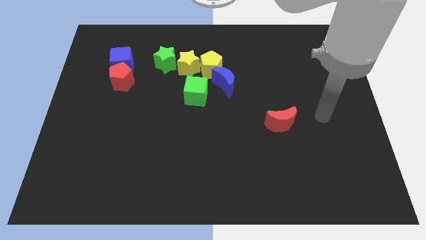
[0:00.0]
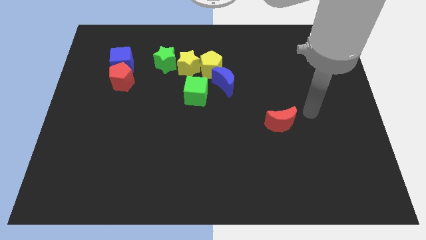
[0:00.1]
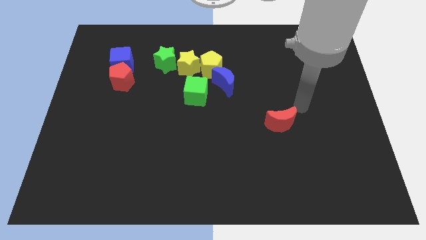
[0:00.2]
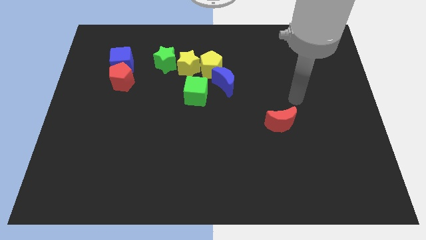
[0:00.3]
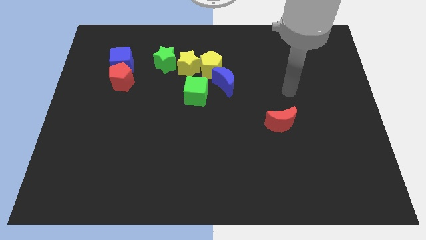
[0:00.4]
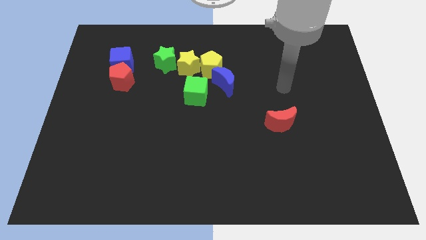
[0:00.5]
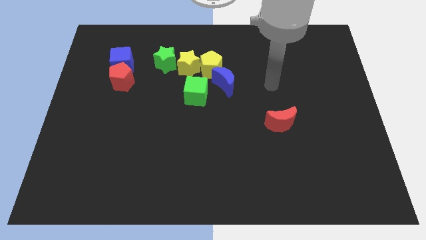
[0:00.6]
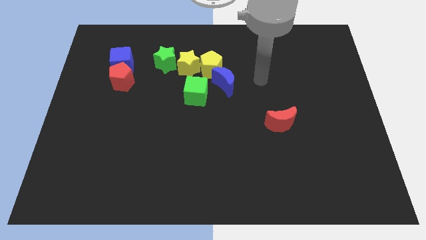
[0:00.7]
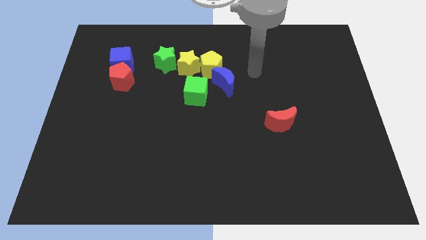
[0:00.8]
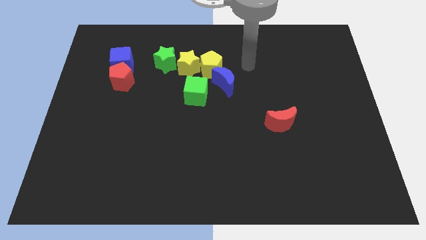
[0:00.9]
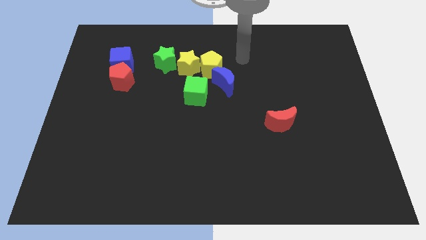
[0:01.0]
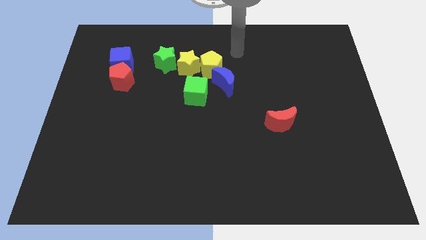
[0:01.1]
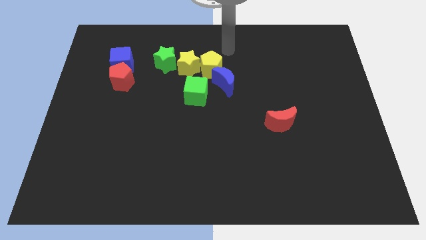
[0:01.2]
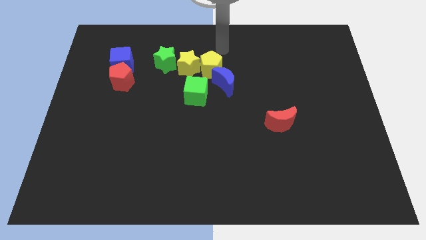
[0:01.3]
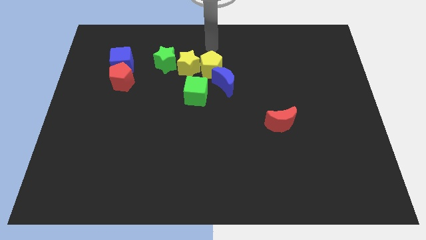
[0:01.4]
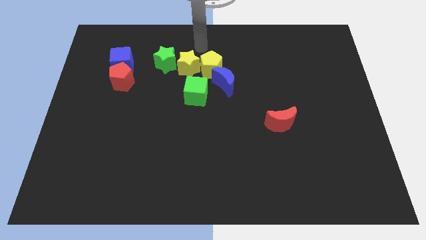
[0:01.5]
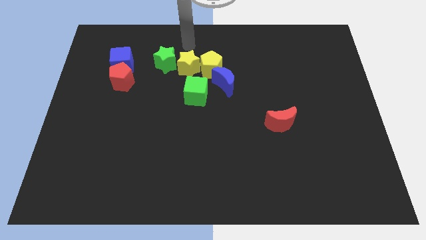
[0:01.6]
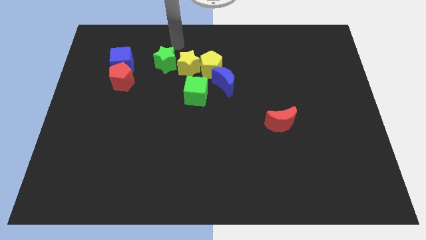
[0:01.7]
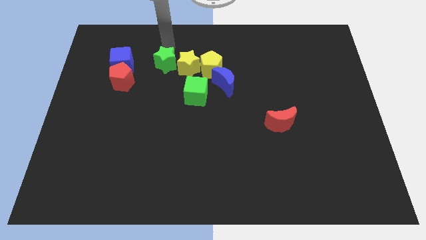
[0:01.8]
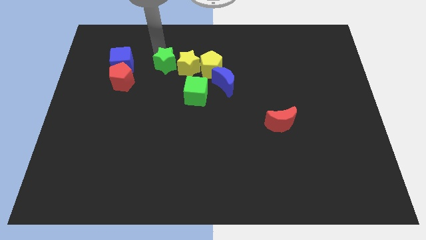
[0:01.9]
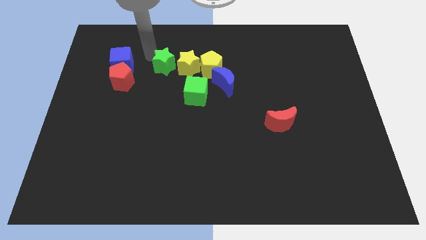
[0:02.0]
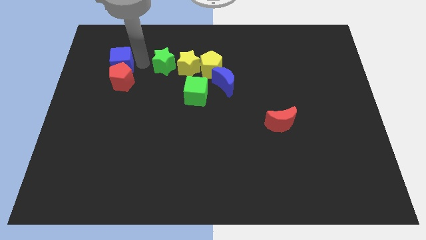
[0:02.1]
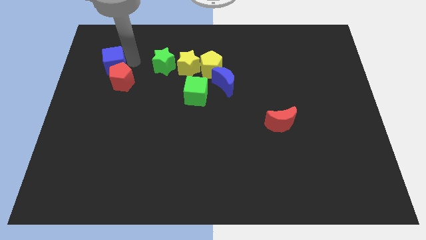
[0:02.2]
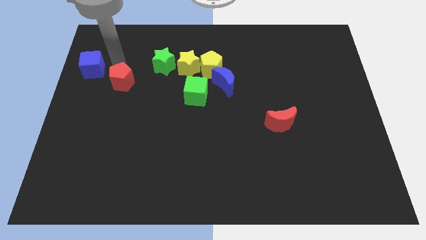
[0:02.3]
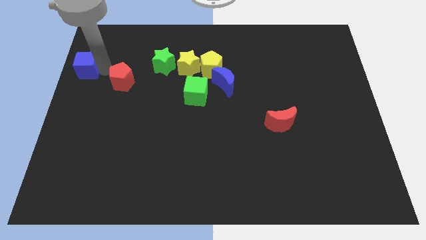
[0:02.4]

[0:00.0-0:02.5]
pull the red pentagon apart from the blue cube

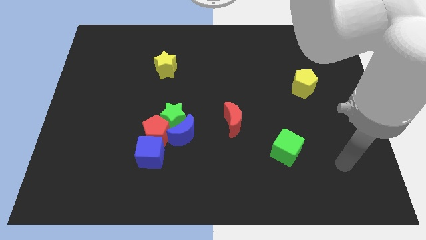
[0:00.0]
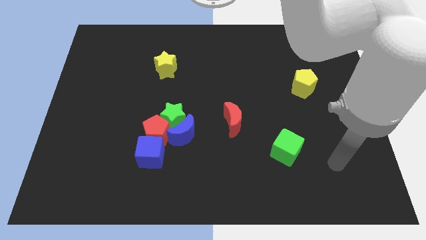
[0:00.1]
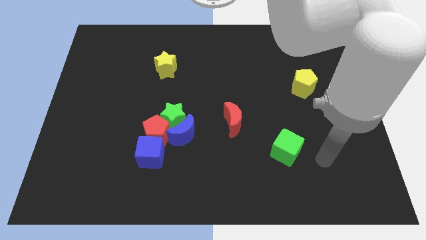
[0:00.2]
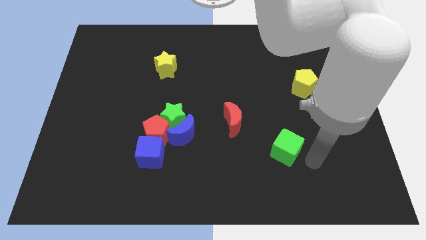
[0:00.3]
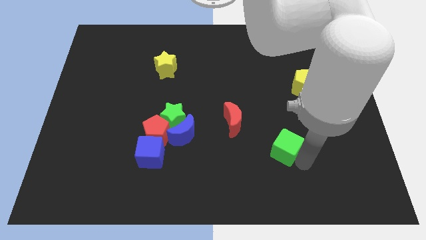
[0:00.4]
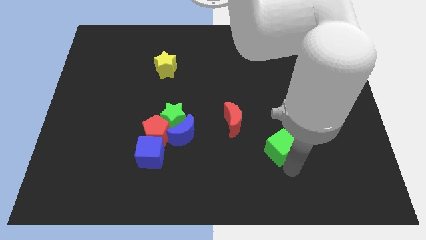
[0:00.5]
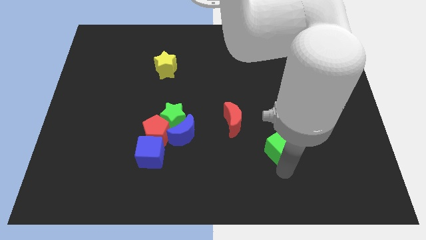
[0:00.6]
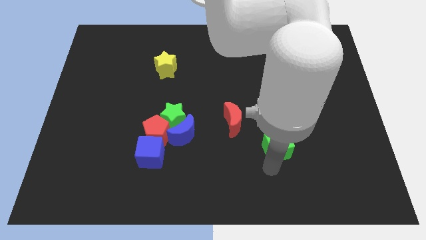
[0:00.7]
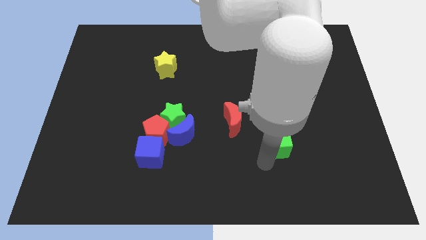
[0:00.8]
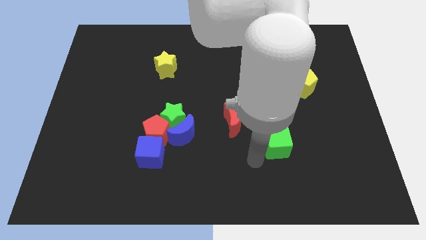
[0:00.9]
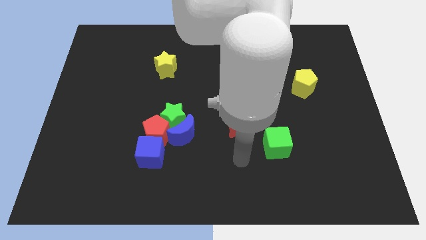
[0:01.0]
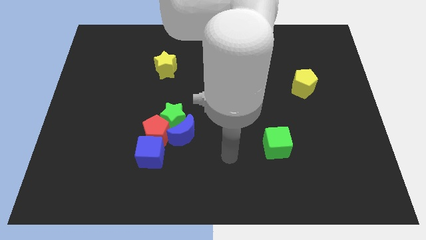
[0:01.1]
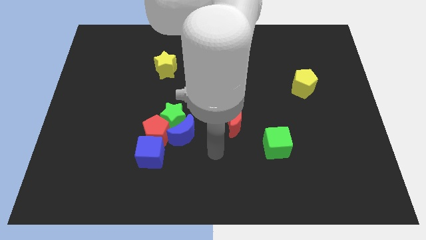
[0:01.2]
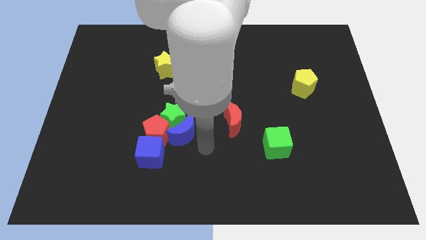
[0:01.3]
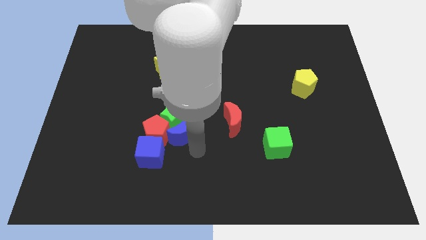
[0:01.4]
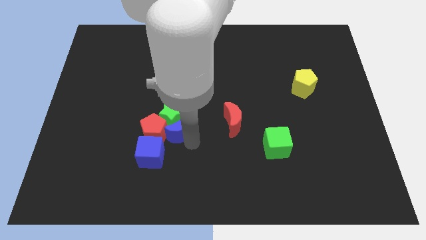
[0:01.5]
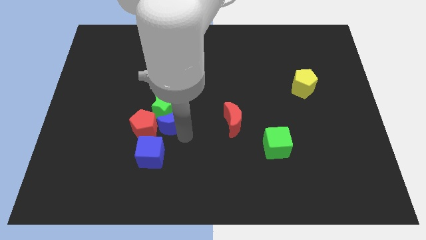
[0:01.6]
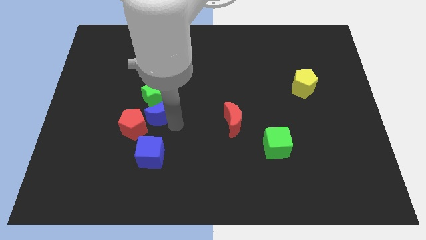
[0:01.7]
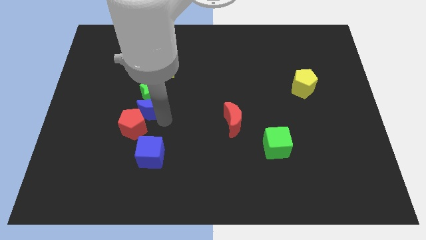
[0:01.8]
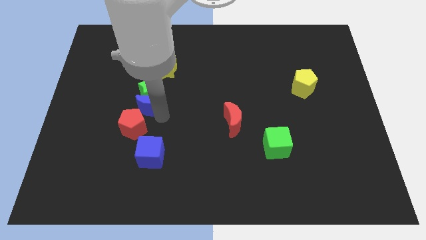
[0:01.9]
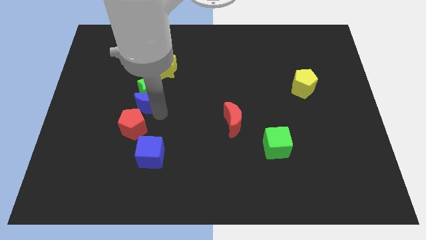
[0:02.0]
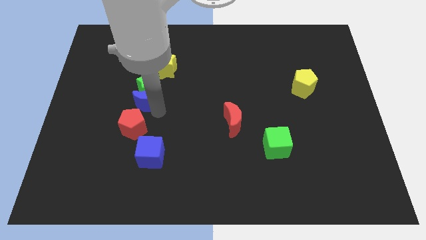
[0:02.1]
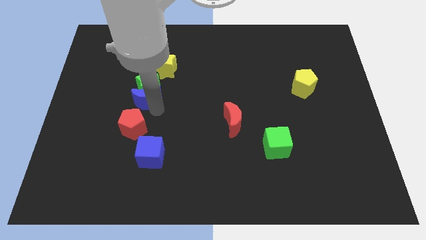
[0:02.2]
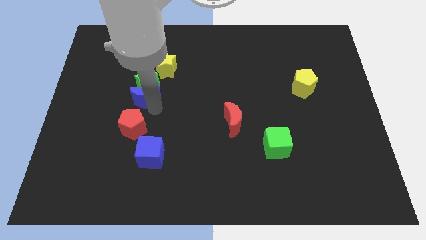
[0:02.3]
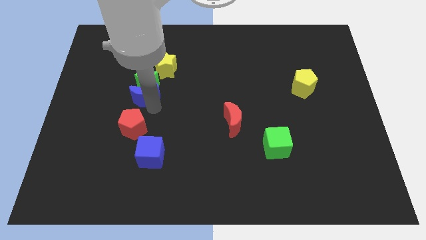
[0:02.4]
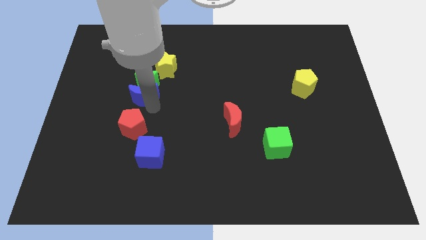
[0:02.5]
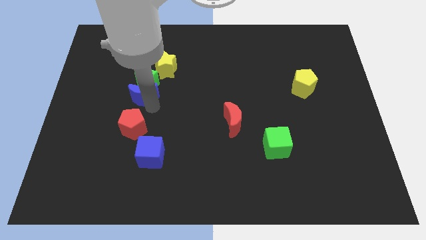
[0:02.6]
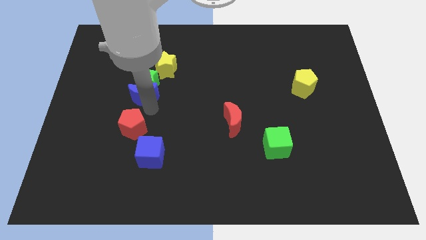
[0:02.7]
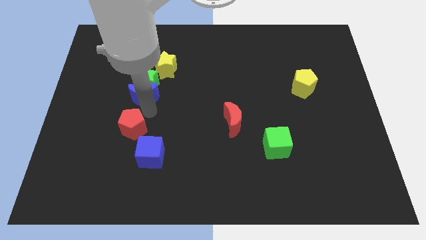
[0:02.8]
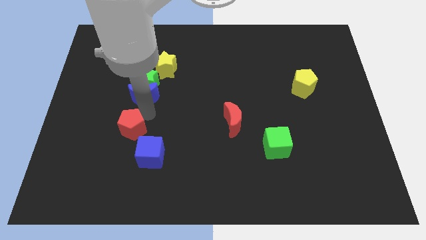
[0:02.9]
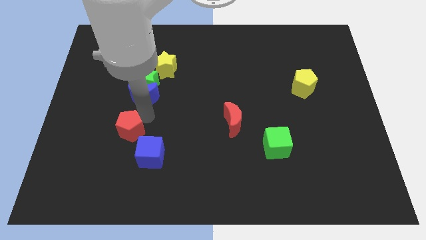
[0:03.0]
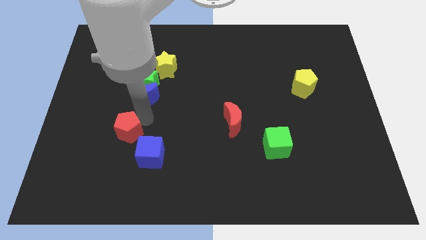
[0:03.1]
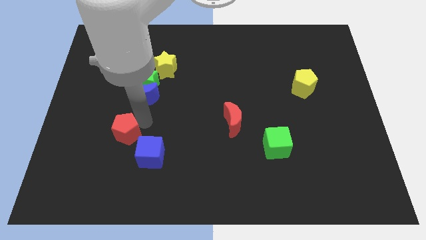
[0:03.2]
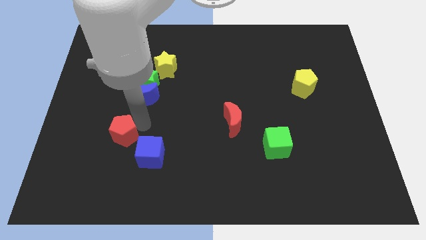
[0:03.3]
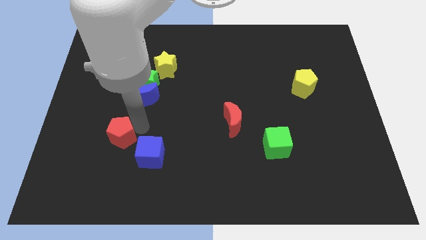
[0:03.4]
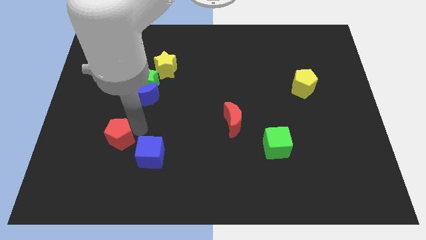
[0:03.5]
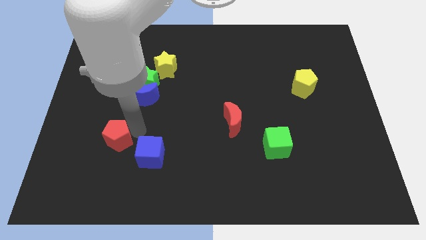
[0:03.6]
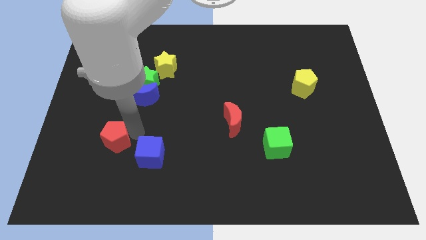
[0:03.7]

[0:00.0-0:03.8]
pull the red pentagon apart from the group

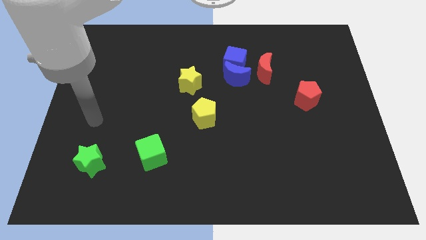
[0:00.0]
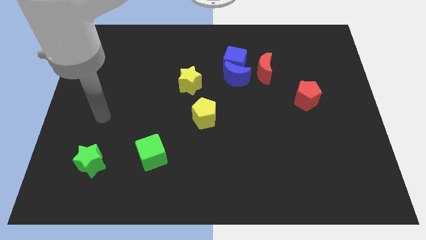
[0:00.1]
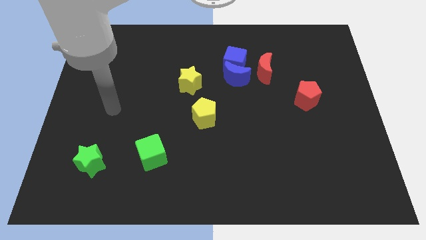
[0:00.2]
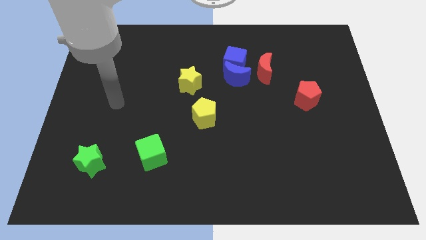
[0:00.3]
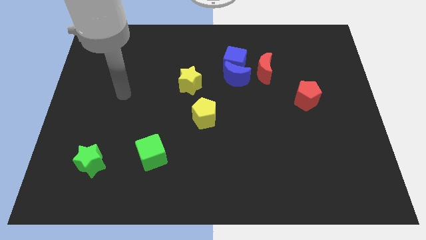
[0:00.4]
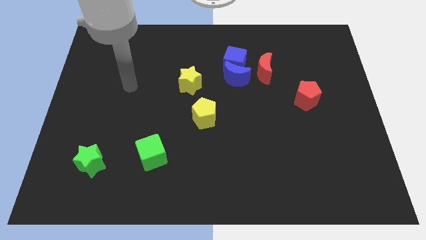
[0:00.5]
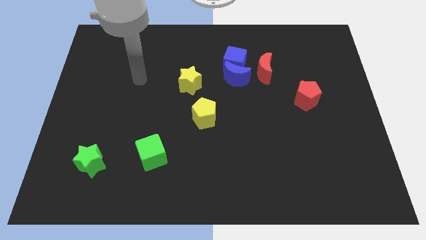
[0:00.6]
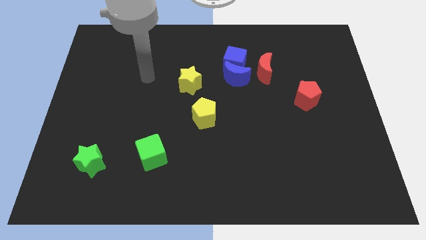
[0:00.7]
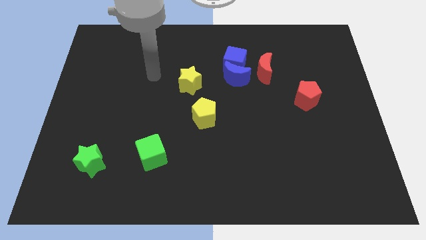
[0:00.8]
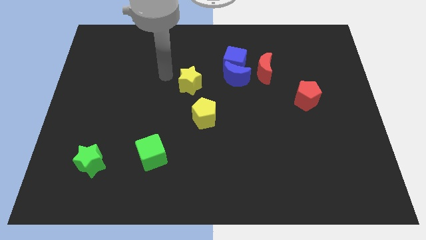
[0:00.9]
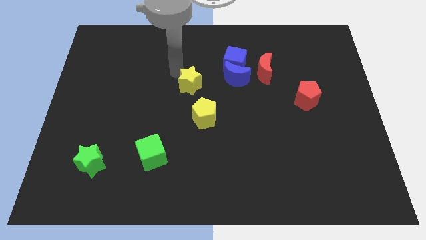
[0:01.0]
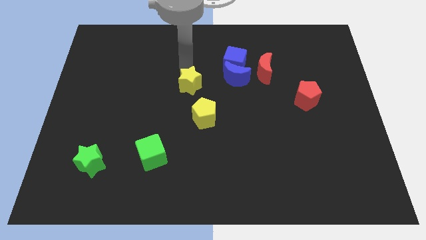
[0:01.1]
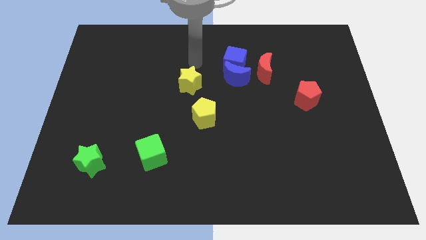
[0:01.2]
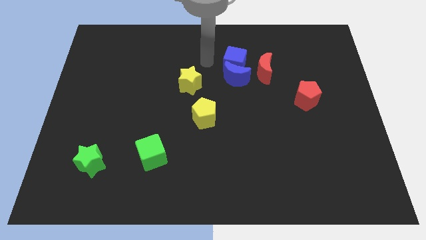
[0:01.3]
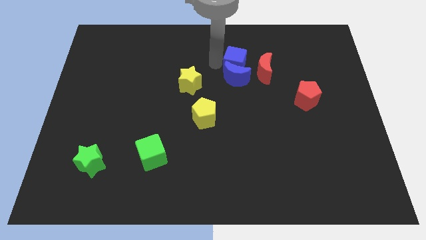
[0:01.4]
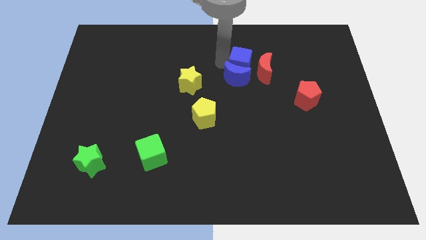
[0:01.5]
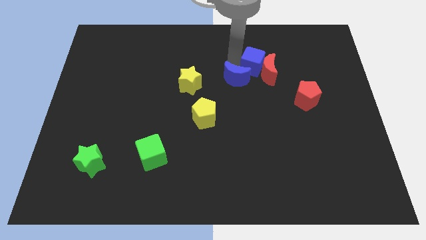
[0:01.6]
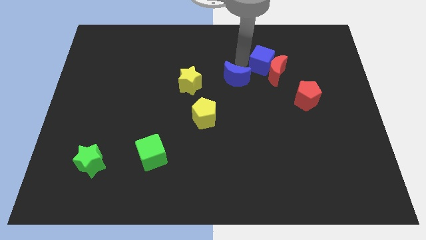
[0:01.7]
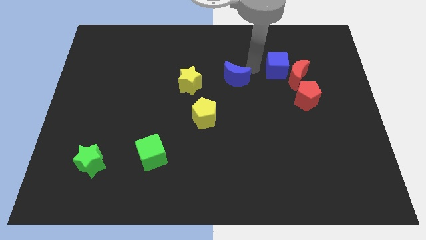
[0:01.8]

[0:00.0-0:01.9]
pull the blue moon apart from the blue cube and red moon

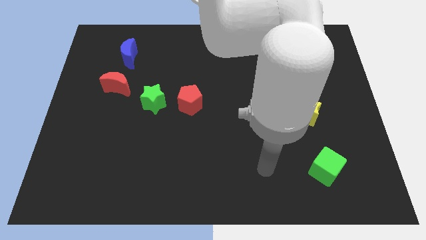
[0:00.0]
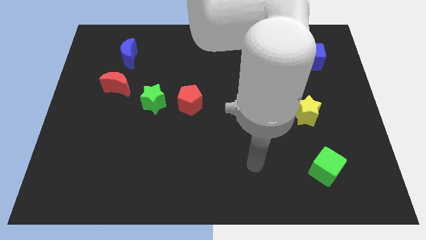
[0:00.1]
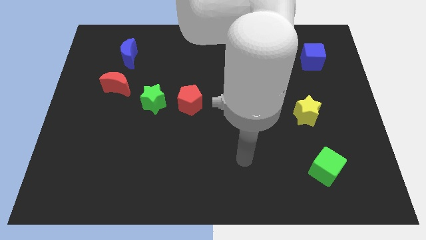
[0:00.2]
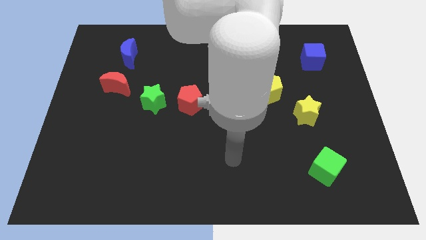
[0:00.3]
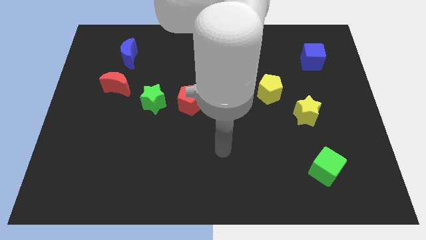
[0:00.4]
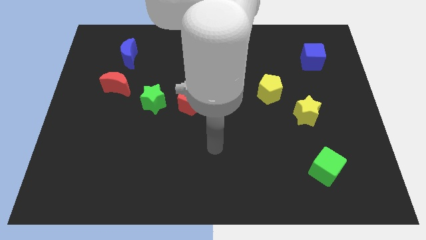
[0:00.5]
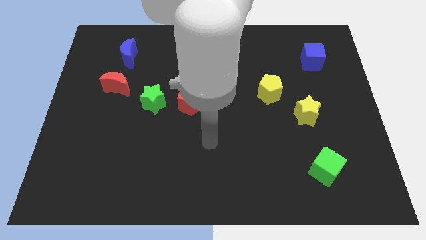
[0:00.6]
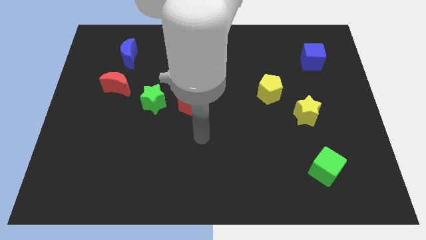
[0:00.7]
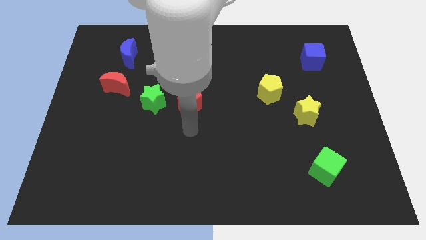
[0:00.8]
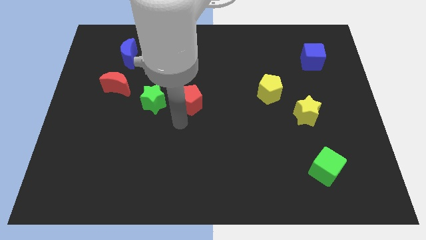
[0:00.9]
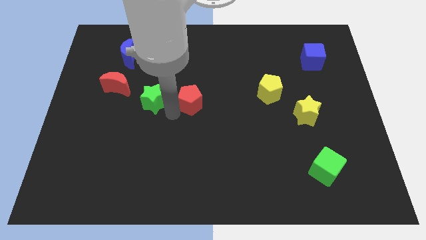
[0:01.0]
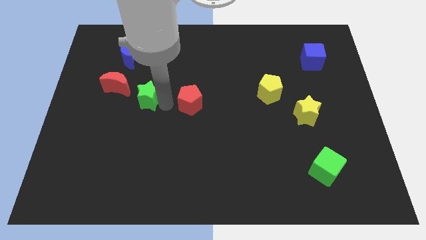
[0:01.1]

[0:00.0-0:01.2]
separate the red pentagon from the green star
